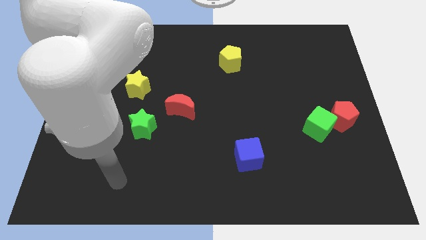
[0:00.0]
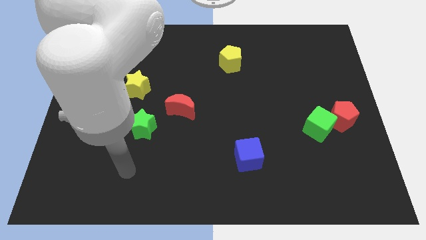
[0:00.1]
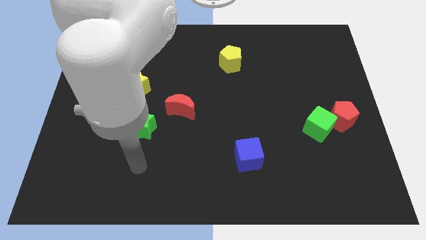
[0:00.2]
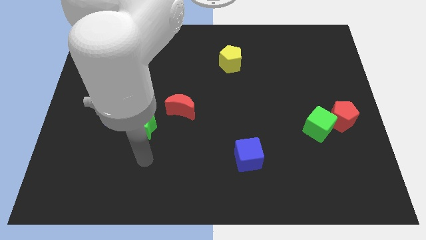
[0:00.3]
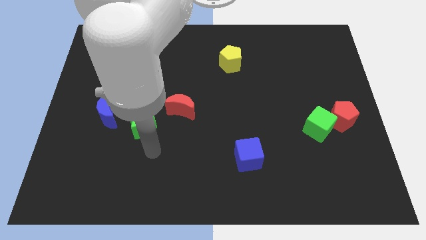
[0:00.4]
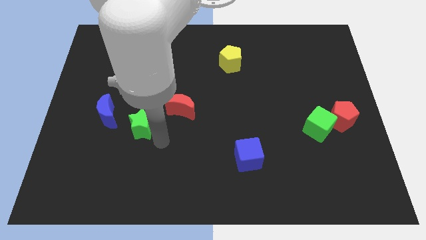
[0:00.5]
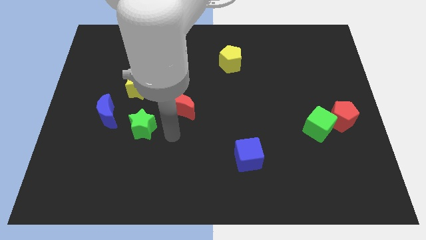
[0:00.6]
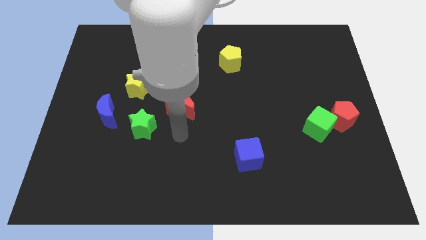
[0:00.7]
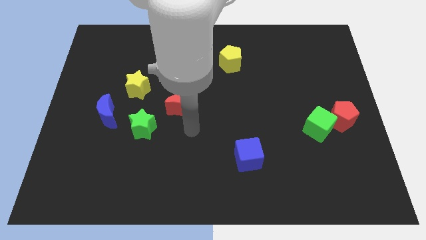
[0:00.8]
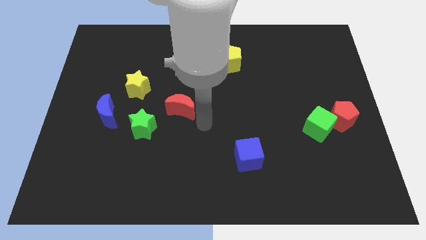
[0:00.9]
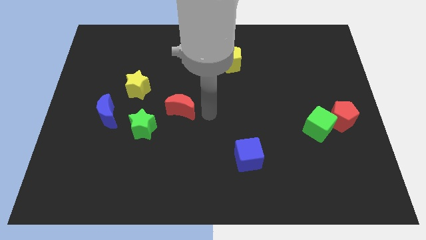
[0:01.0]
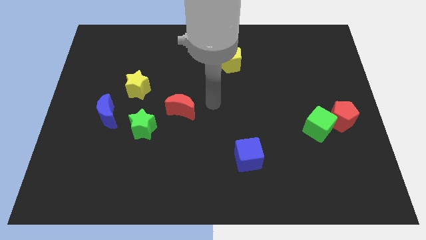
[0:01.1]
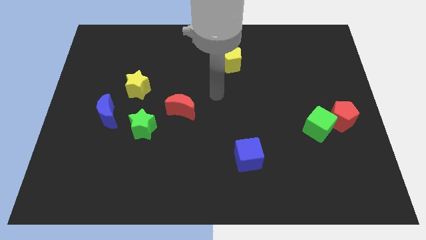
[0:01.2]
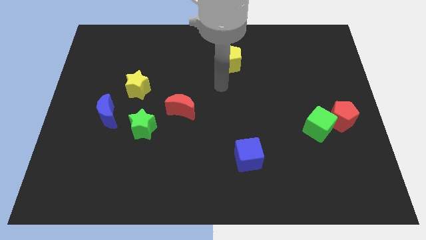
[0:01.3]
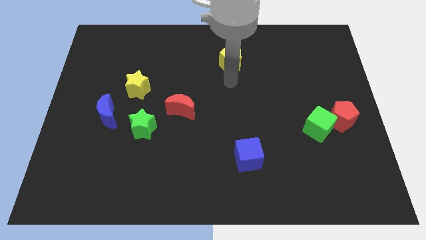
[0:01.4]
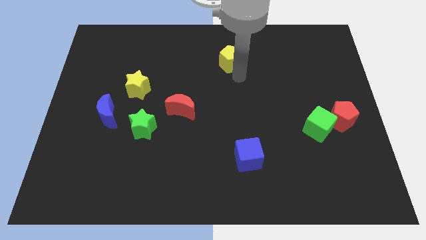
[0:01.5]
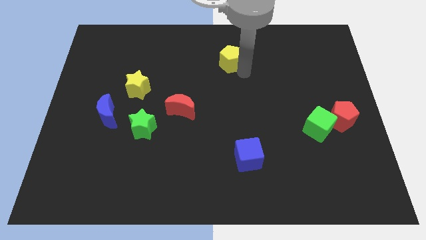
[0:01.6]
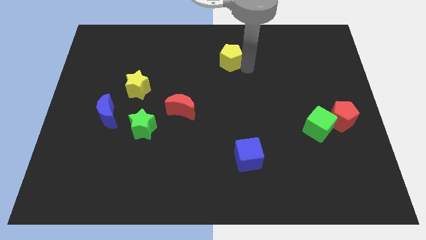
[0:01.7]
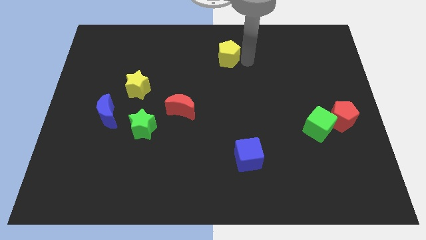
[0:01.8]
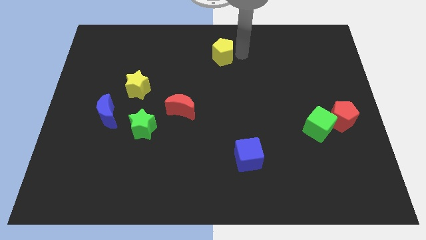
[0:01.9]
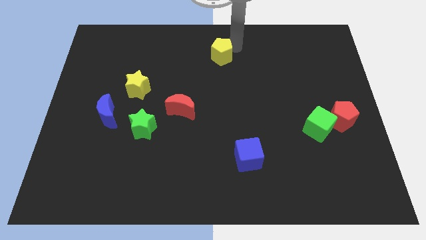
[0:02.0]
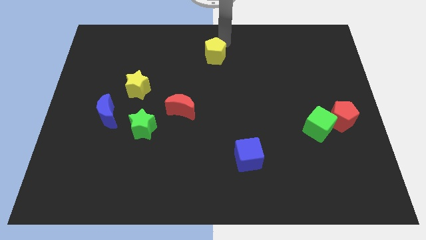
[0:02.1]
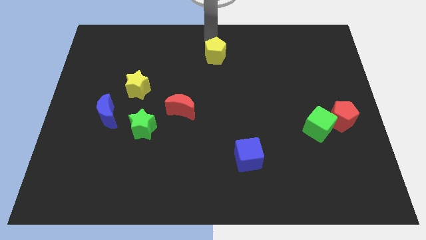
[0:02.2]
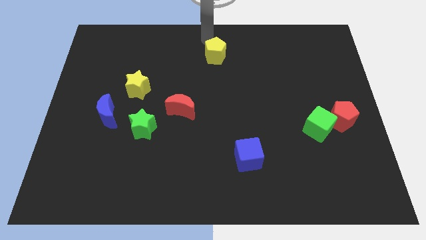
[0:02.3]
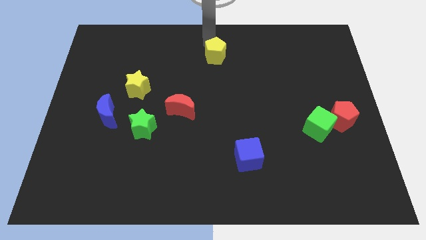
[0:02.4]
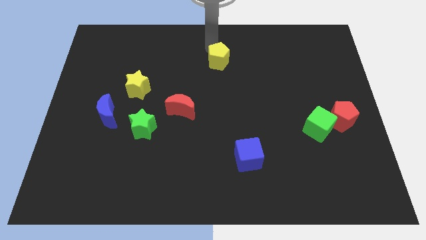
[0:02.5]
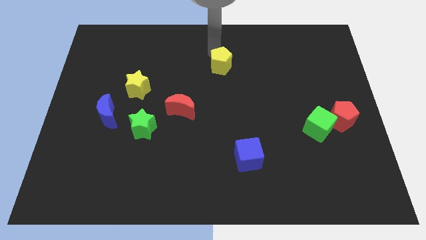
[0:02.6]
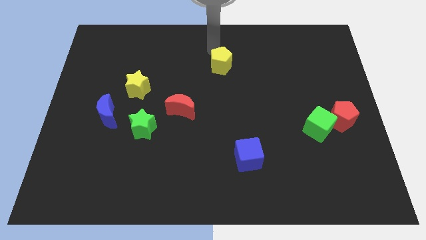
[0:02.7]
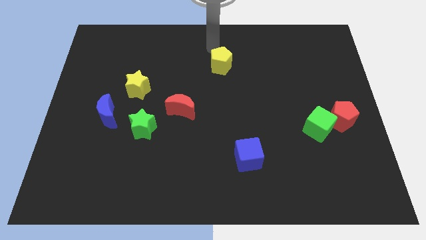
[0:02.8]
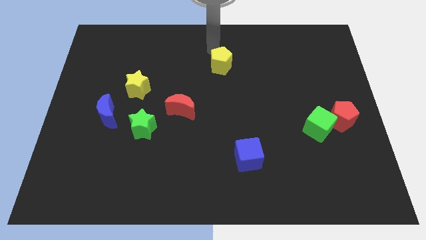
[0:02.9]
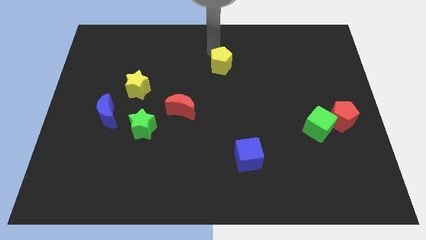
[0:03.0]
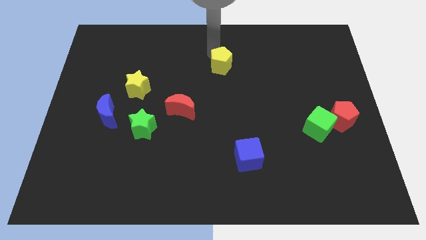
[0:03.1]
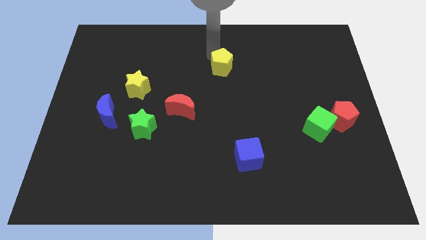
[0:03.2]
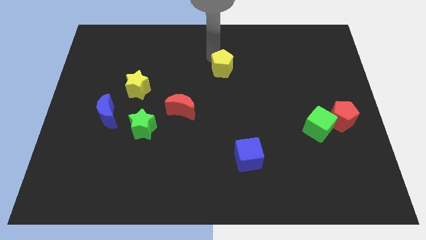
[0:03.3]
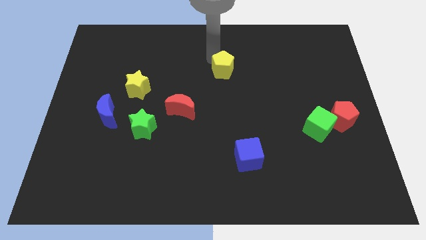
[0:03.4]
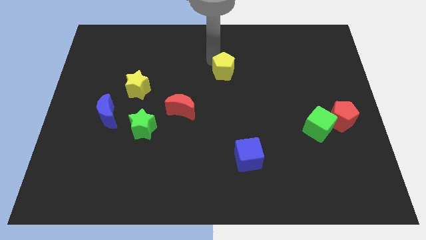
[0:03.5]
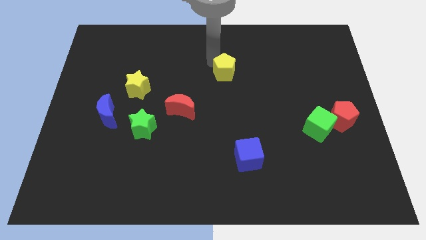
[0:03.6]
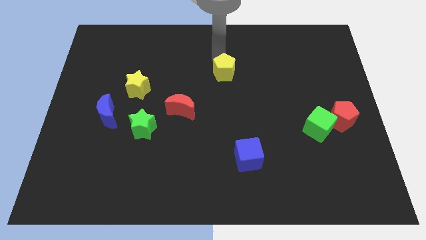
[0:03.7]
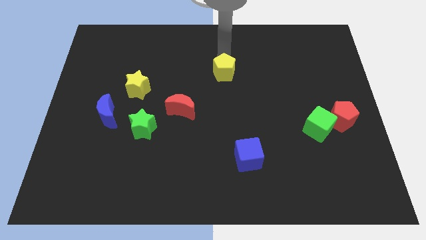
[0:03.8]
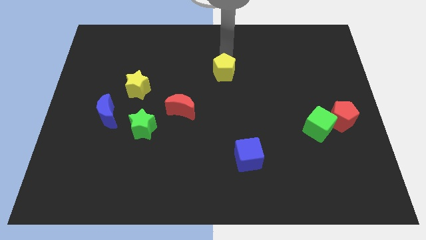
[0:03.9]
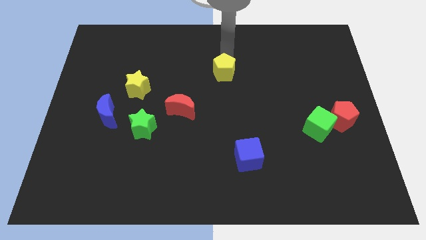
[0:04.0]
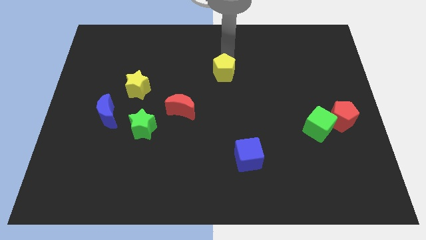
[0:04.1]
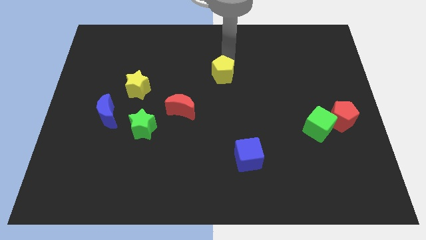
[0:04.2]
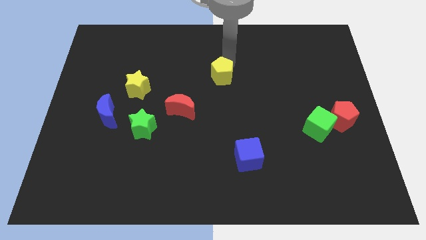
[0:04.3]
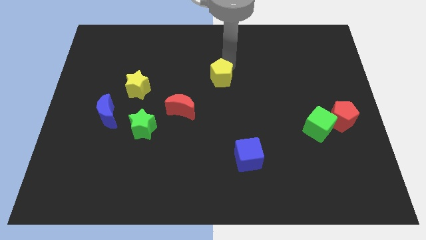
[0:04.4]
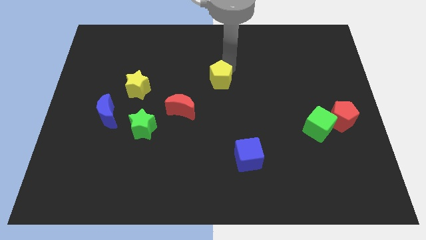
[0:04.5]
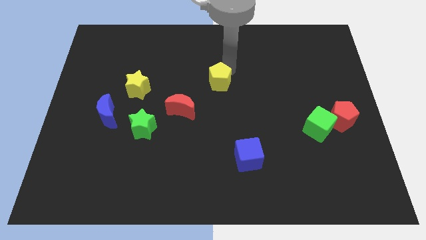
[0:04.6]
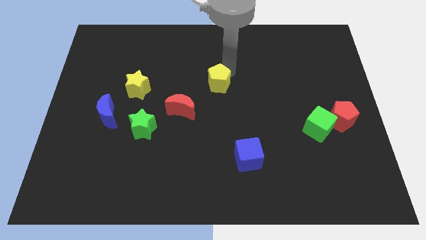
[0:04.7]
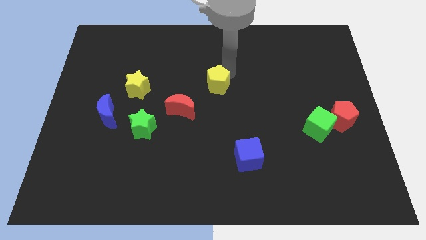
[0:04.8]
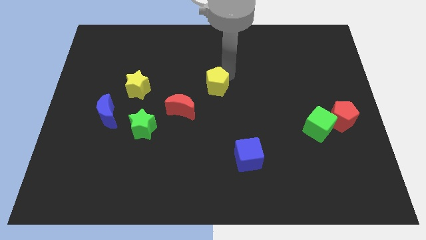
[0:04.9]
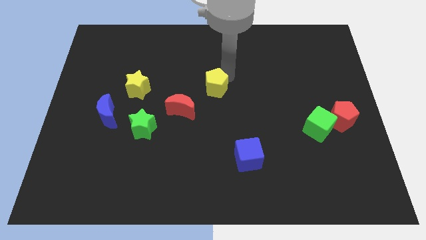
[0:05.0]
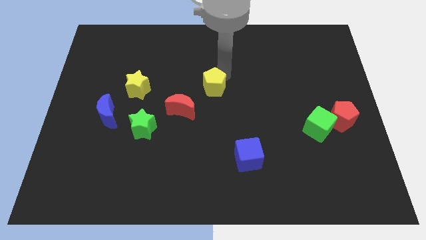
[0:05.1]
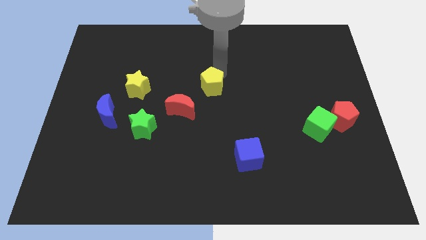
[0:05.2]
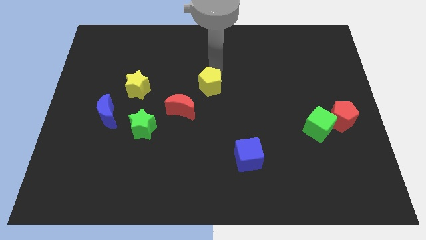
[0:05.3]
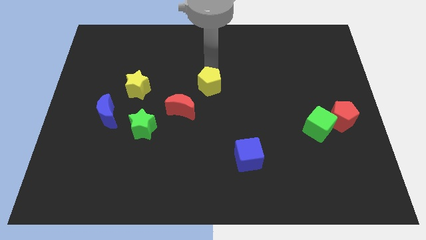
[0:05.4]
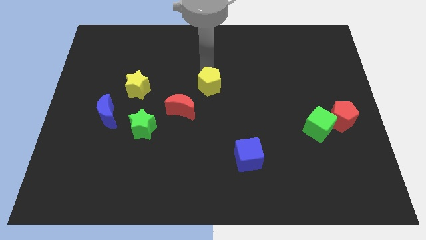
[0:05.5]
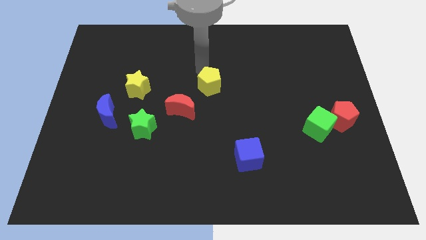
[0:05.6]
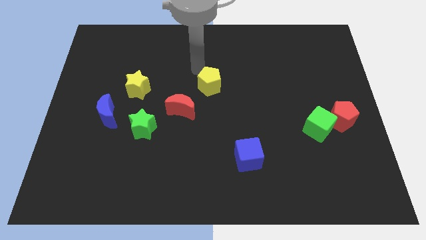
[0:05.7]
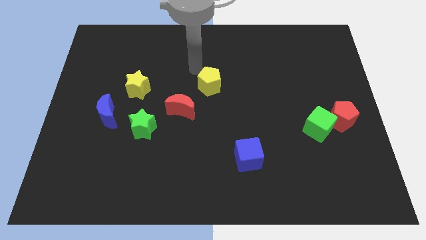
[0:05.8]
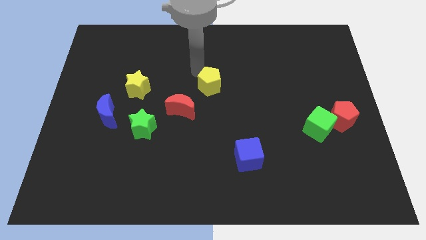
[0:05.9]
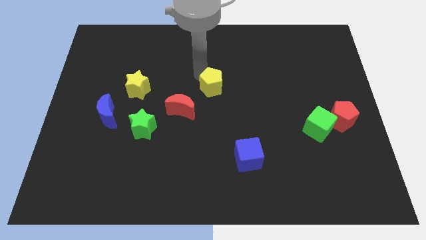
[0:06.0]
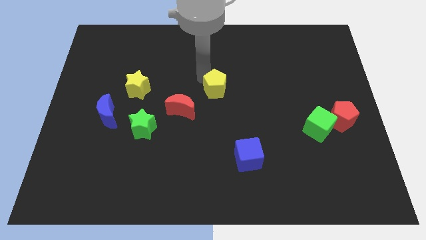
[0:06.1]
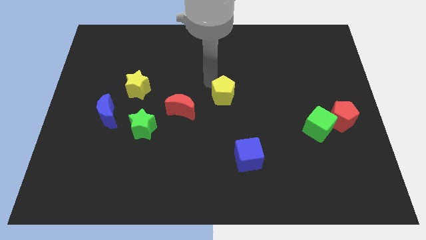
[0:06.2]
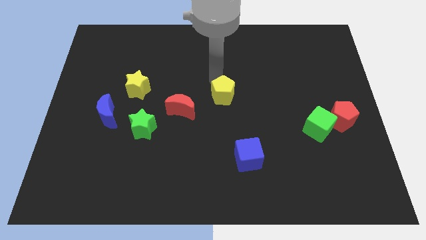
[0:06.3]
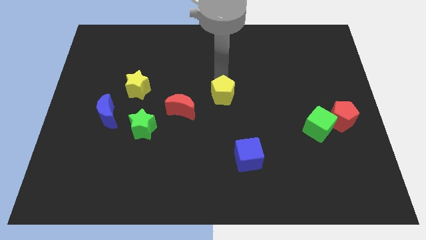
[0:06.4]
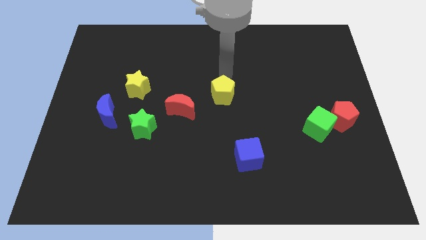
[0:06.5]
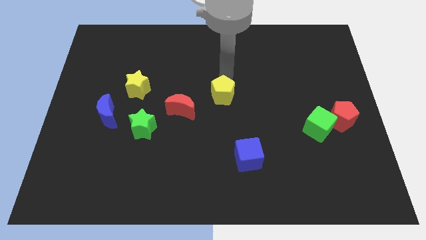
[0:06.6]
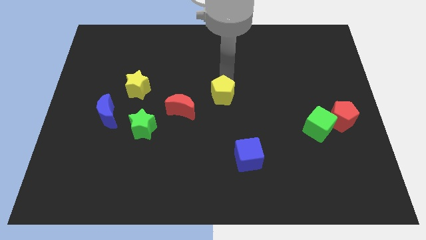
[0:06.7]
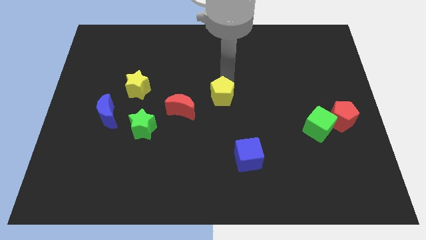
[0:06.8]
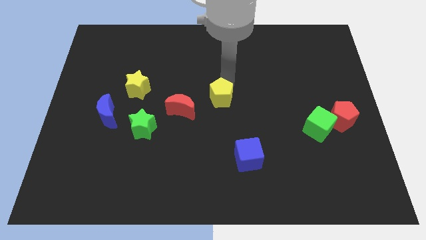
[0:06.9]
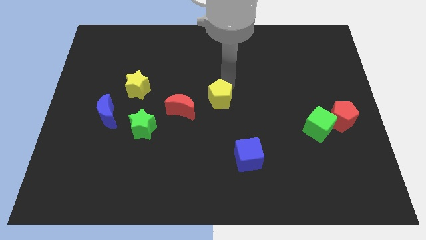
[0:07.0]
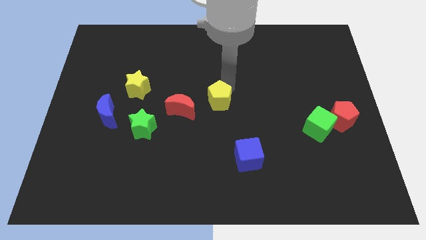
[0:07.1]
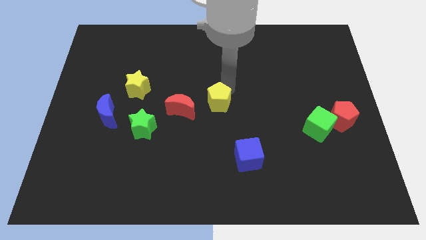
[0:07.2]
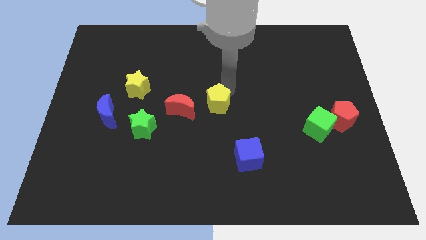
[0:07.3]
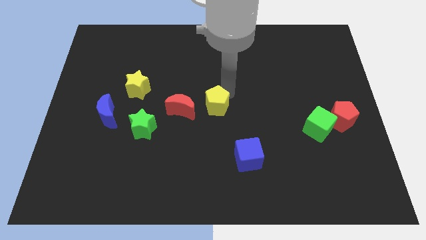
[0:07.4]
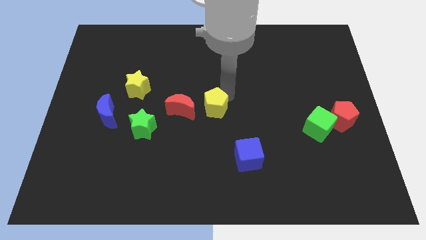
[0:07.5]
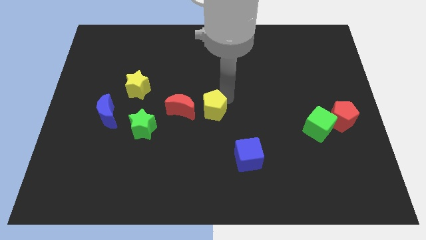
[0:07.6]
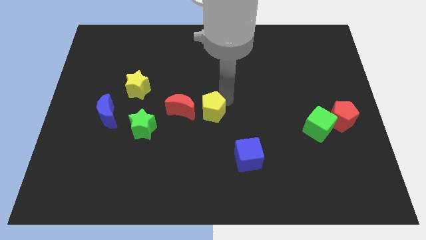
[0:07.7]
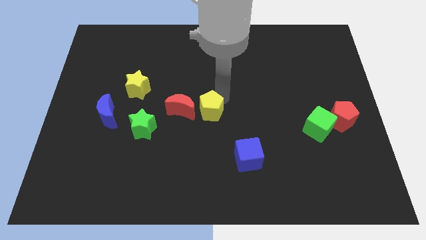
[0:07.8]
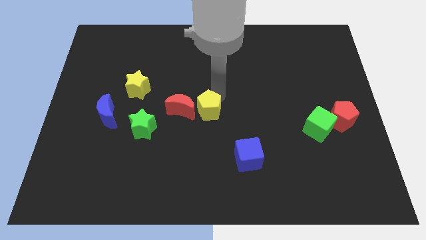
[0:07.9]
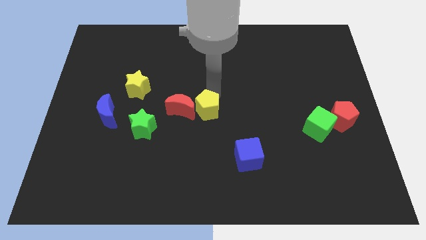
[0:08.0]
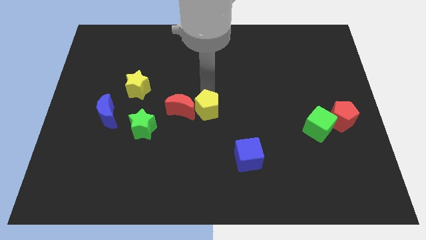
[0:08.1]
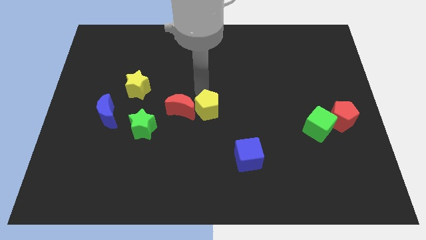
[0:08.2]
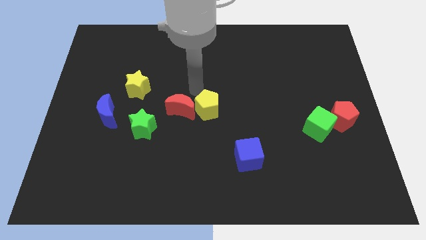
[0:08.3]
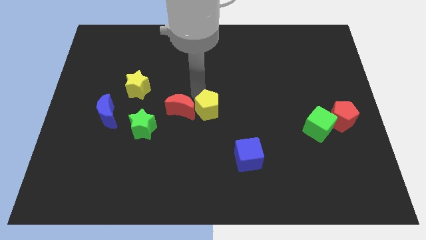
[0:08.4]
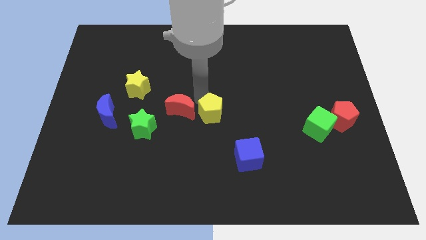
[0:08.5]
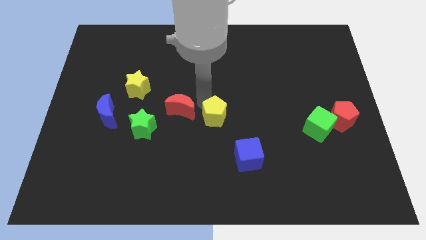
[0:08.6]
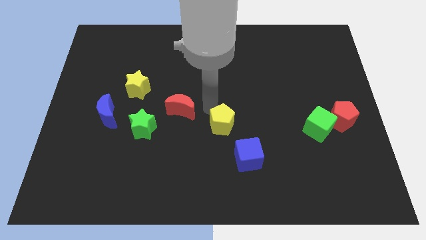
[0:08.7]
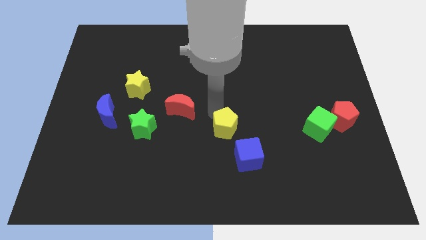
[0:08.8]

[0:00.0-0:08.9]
slide the yellow pentagon downwards
